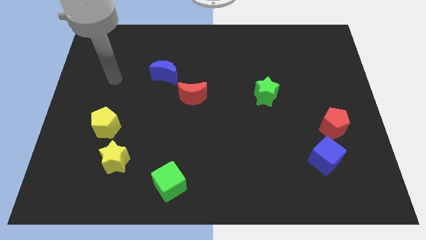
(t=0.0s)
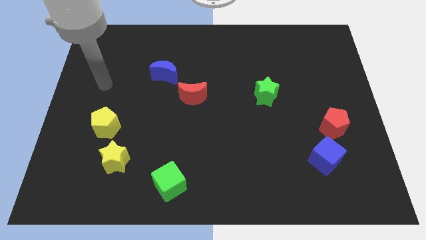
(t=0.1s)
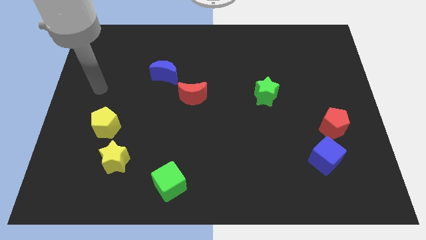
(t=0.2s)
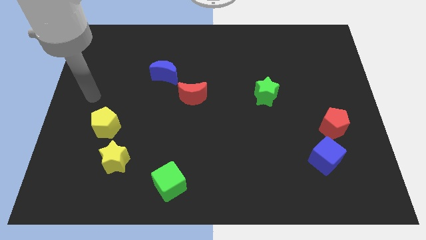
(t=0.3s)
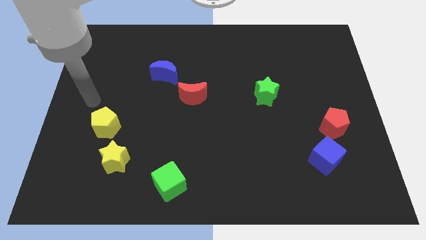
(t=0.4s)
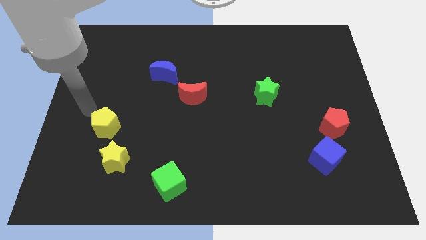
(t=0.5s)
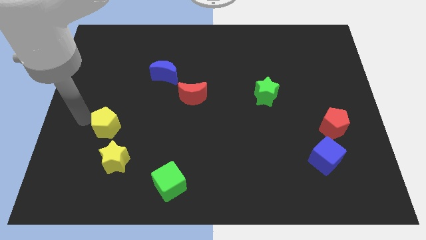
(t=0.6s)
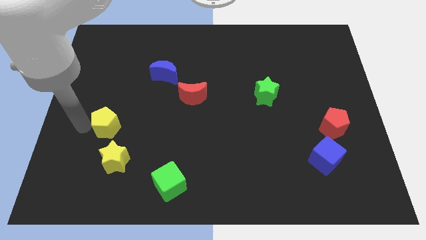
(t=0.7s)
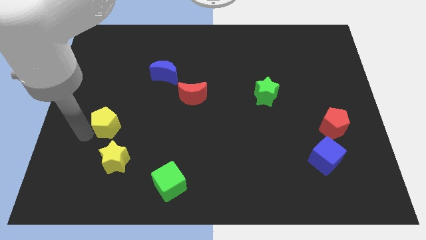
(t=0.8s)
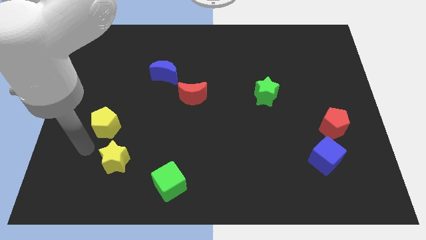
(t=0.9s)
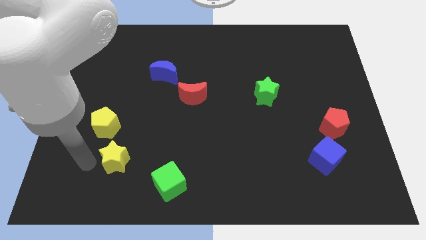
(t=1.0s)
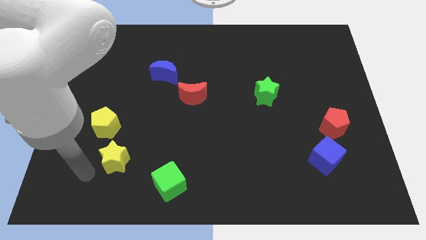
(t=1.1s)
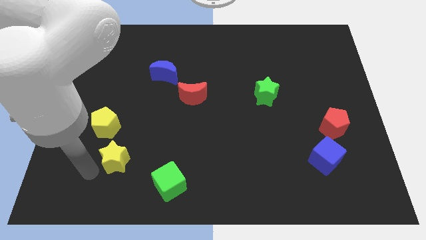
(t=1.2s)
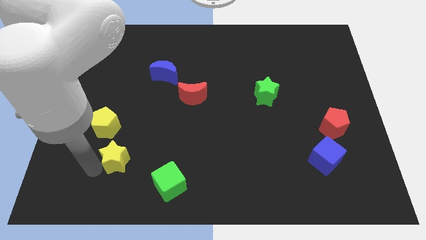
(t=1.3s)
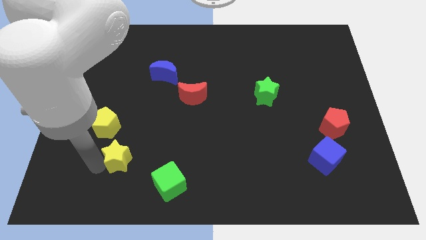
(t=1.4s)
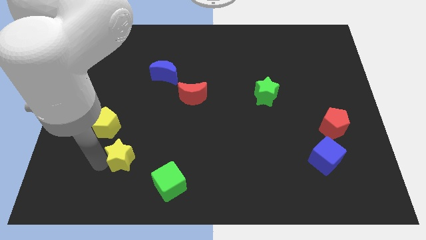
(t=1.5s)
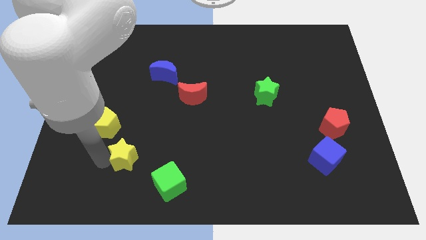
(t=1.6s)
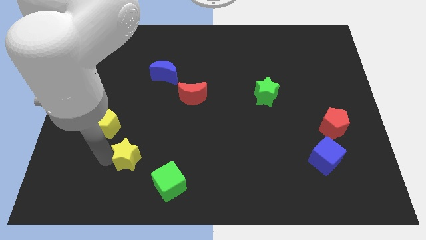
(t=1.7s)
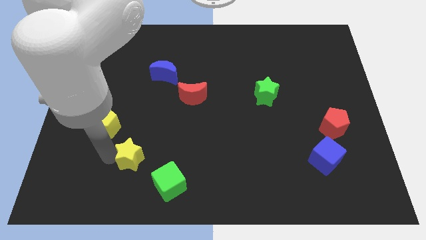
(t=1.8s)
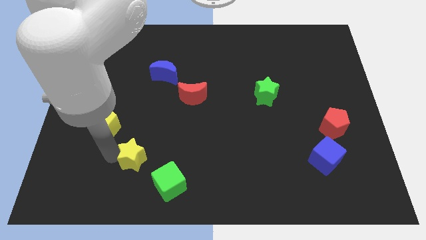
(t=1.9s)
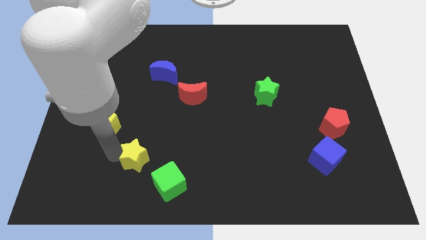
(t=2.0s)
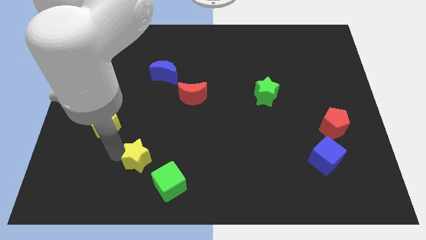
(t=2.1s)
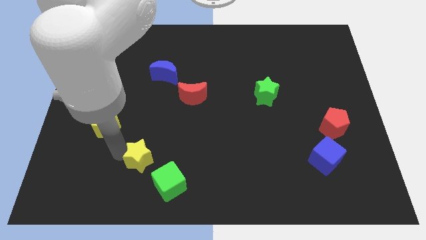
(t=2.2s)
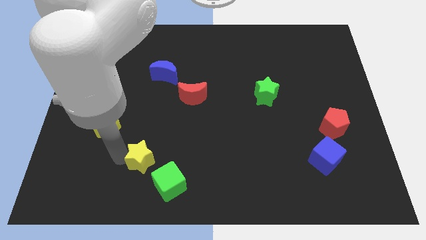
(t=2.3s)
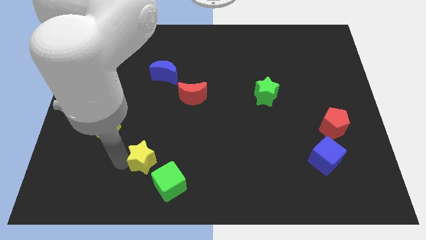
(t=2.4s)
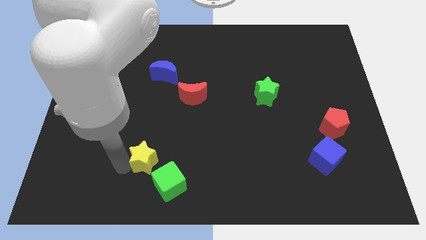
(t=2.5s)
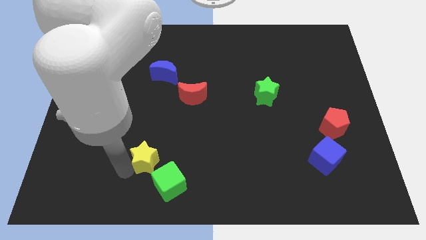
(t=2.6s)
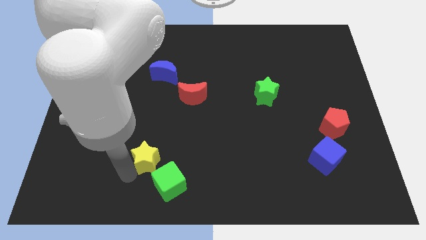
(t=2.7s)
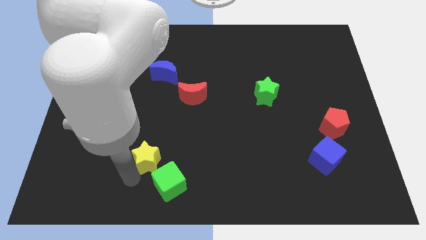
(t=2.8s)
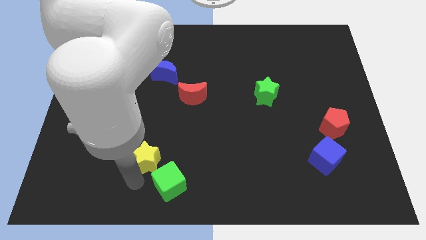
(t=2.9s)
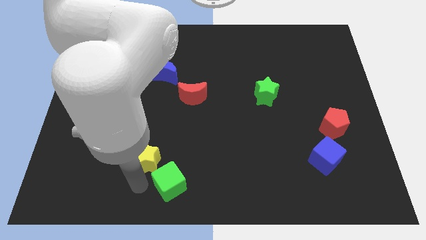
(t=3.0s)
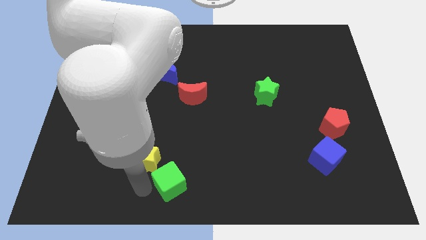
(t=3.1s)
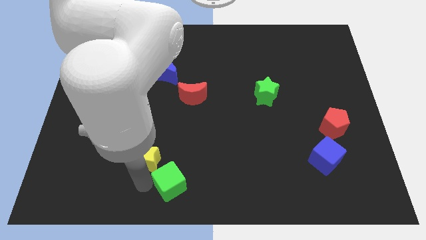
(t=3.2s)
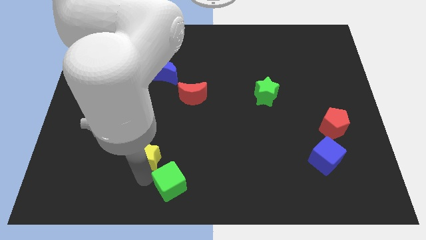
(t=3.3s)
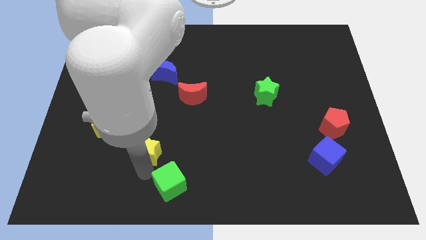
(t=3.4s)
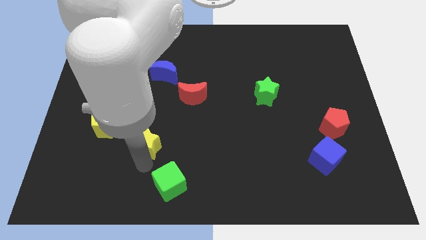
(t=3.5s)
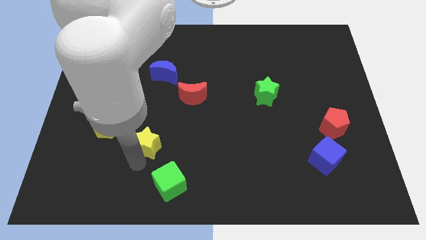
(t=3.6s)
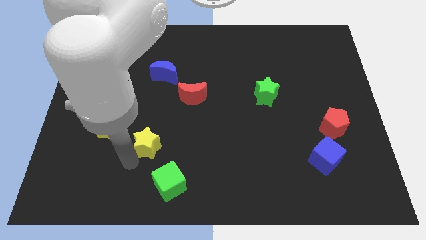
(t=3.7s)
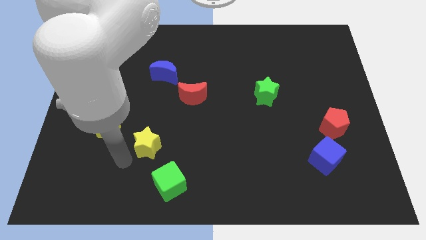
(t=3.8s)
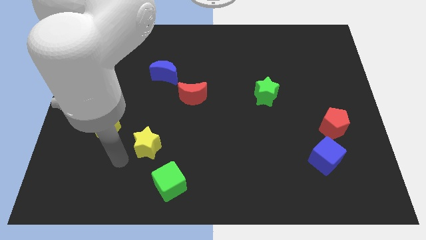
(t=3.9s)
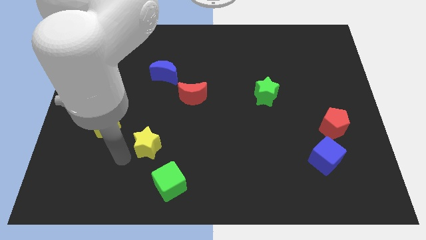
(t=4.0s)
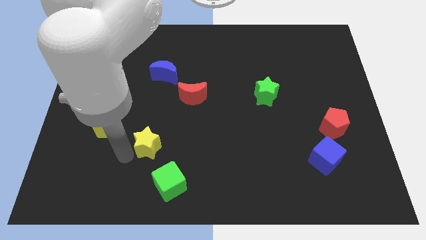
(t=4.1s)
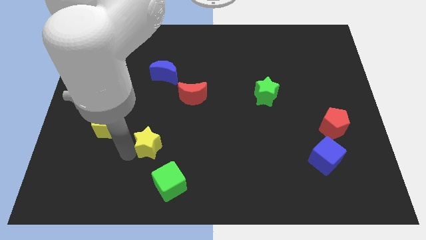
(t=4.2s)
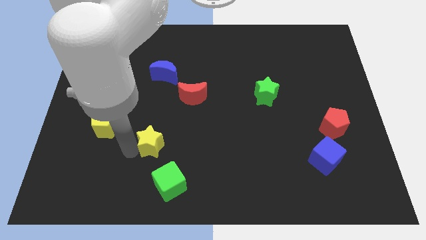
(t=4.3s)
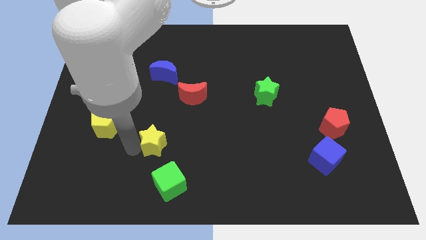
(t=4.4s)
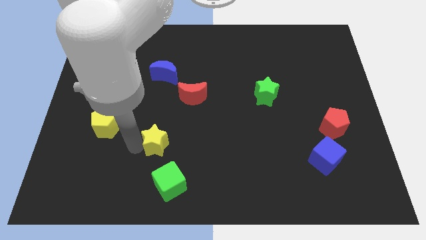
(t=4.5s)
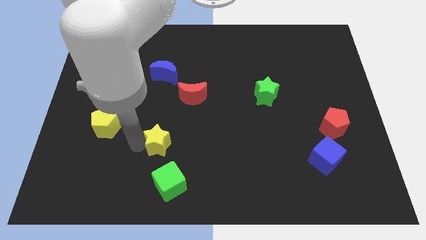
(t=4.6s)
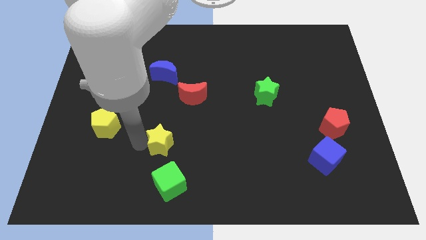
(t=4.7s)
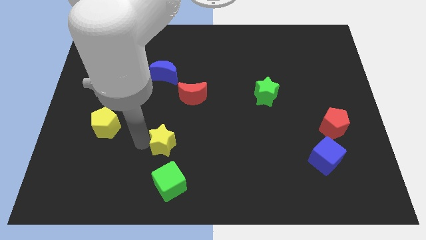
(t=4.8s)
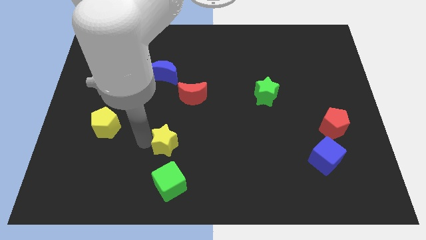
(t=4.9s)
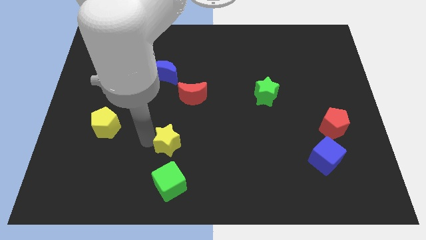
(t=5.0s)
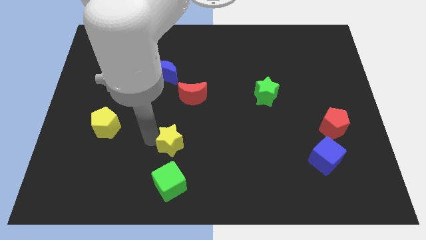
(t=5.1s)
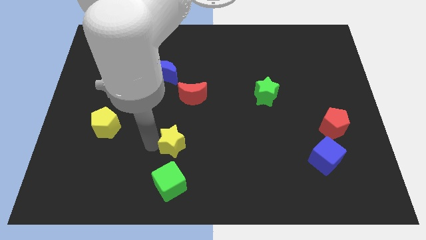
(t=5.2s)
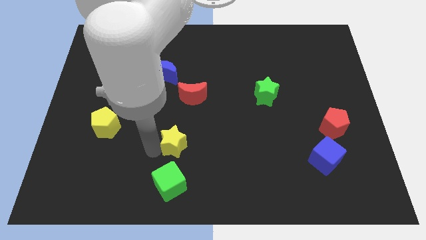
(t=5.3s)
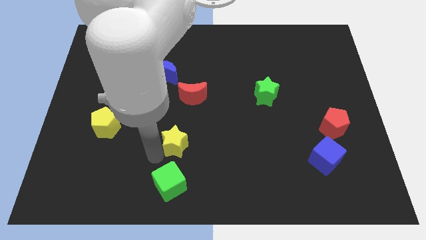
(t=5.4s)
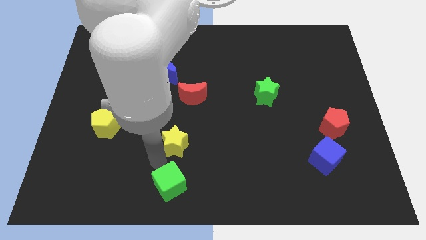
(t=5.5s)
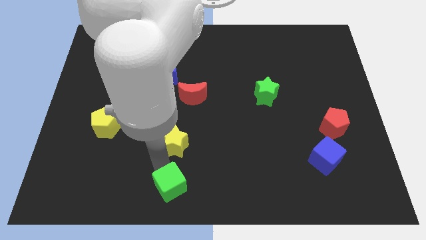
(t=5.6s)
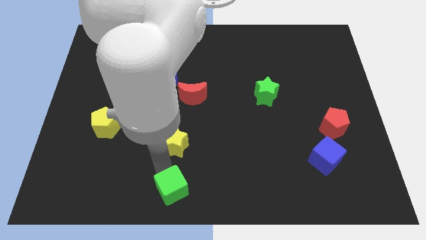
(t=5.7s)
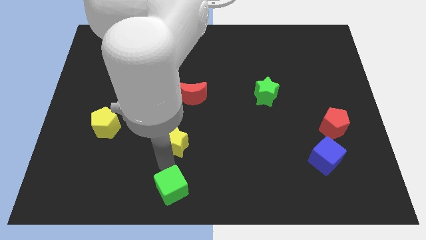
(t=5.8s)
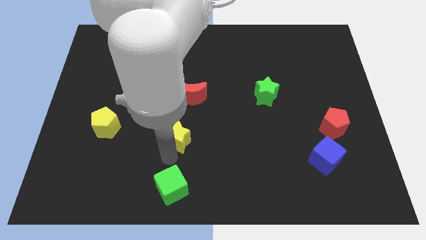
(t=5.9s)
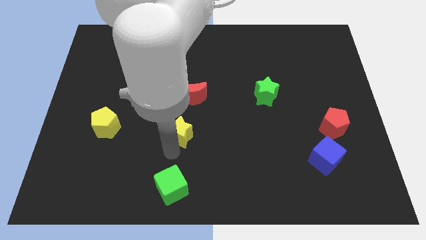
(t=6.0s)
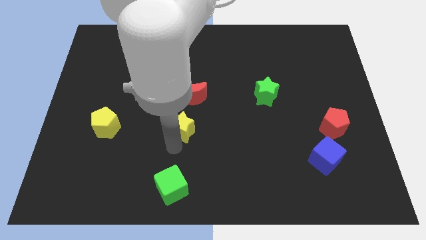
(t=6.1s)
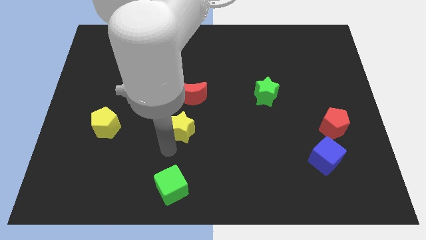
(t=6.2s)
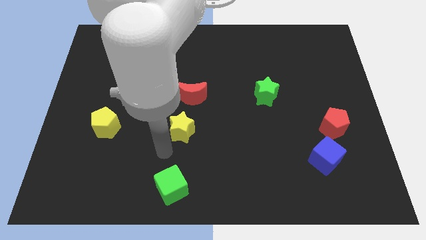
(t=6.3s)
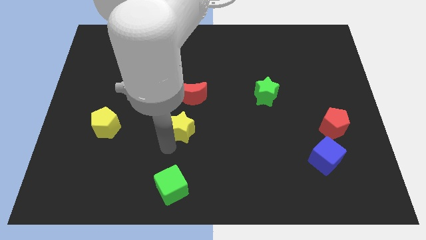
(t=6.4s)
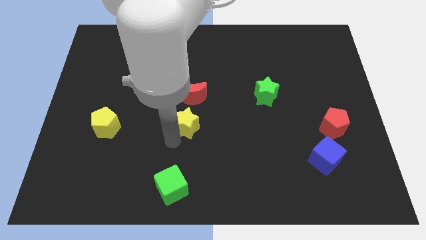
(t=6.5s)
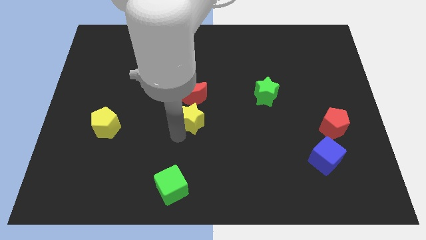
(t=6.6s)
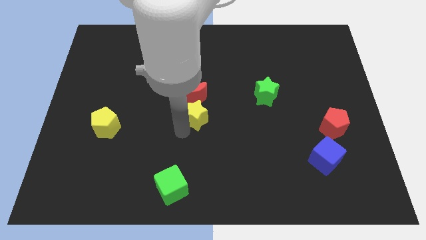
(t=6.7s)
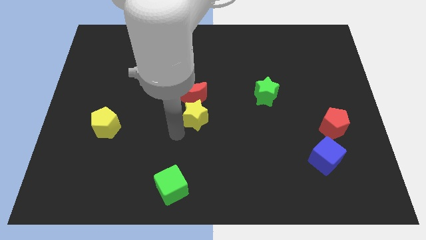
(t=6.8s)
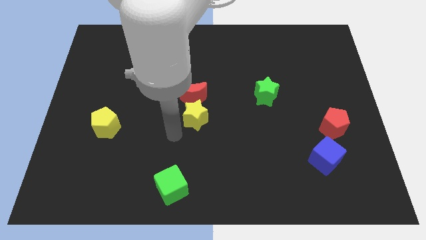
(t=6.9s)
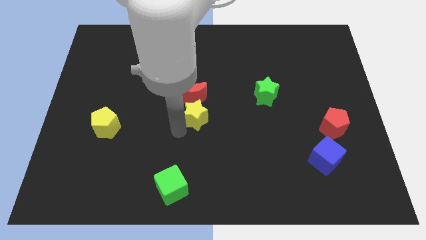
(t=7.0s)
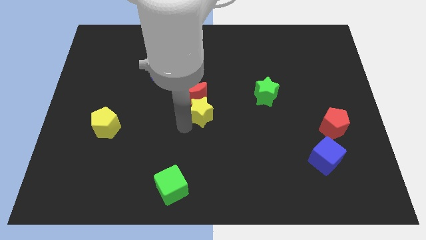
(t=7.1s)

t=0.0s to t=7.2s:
slide the yellow star upwards and to the right

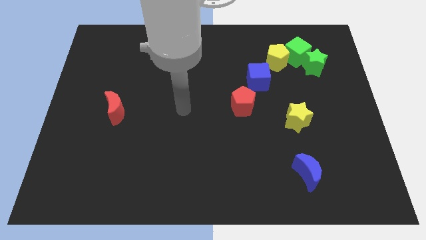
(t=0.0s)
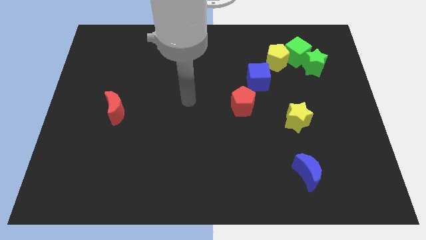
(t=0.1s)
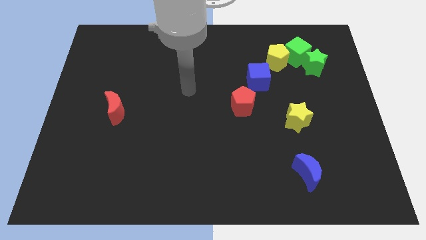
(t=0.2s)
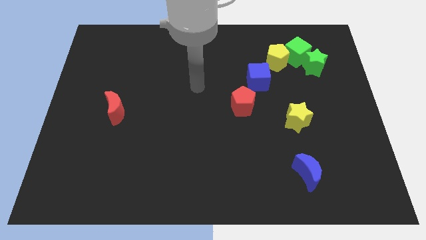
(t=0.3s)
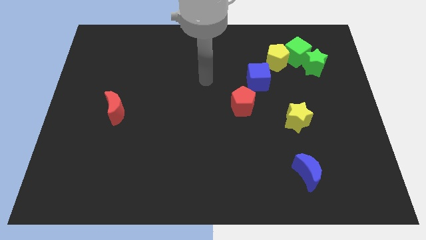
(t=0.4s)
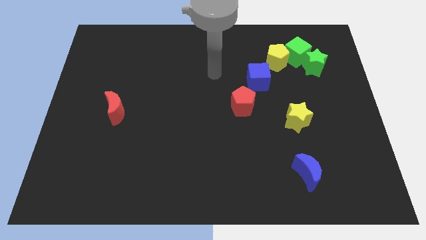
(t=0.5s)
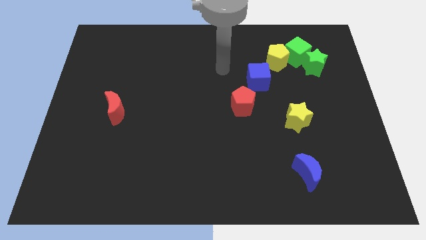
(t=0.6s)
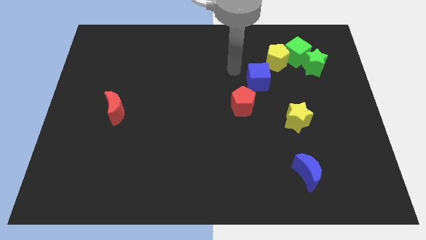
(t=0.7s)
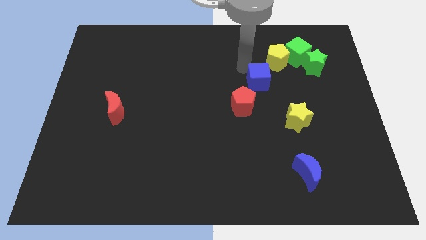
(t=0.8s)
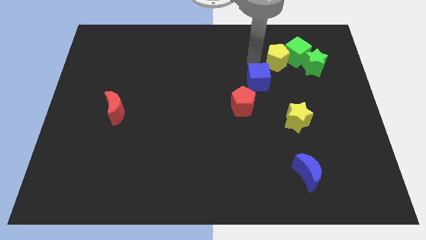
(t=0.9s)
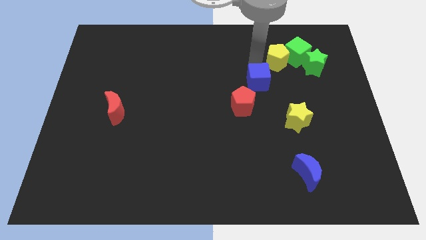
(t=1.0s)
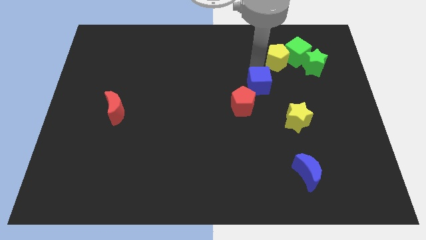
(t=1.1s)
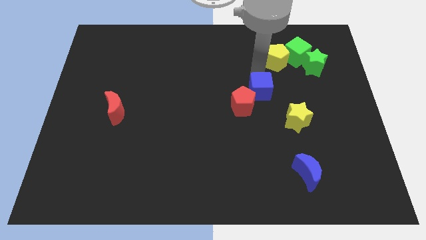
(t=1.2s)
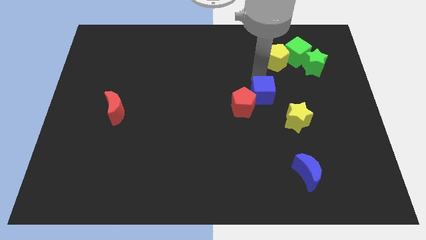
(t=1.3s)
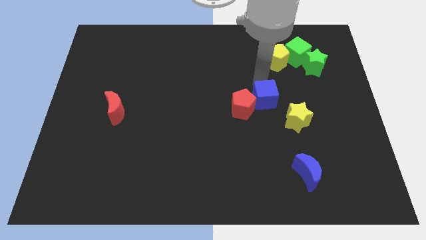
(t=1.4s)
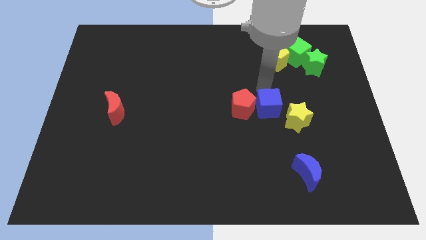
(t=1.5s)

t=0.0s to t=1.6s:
slightly slide the blue cube down
